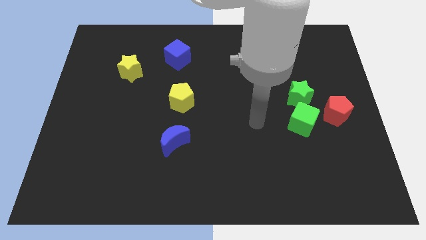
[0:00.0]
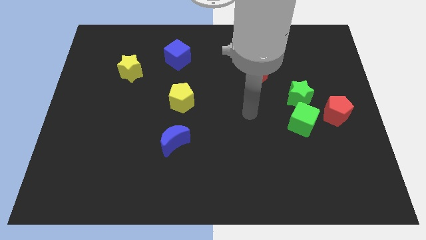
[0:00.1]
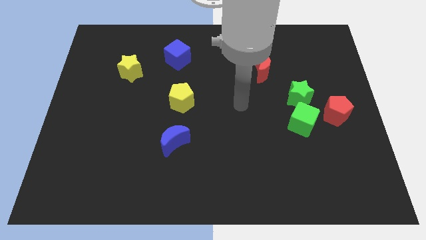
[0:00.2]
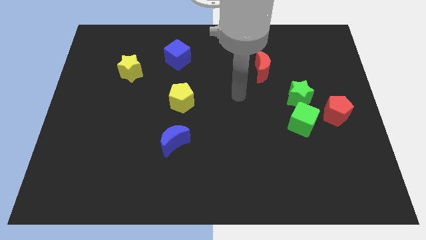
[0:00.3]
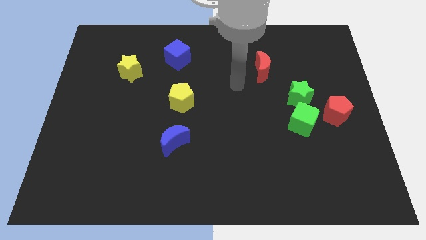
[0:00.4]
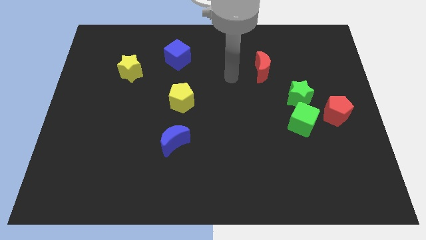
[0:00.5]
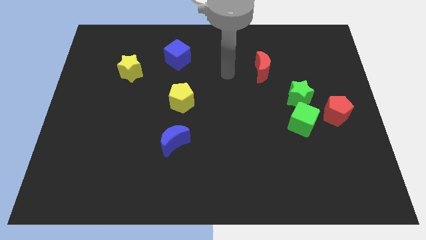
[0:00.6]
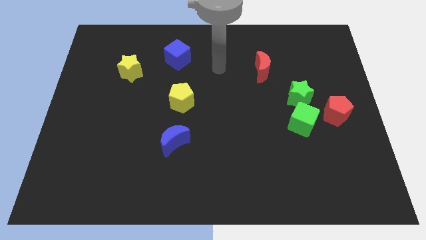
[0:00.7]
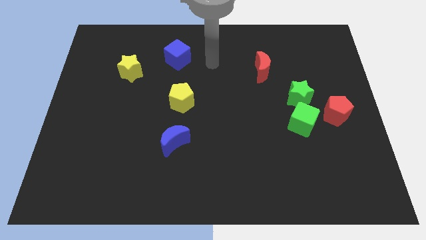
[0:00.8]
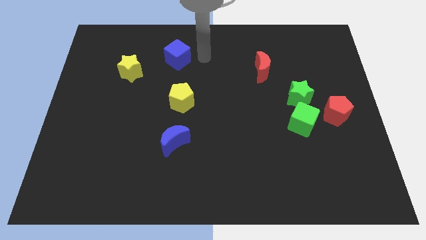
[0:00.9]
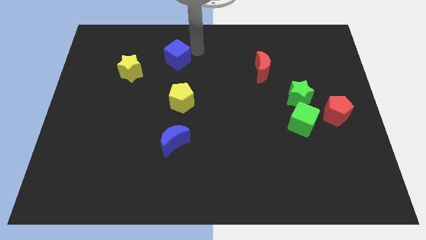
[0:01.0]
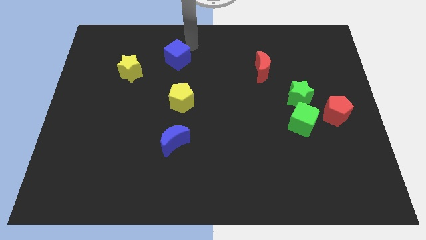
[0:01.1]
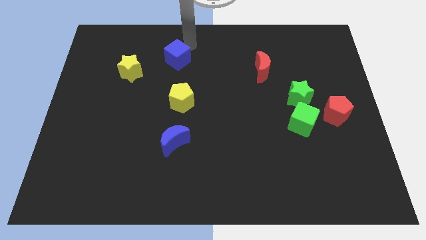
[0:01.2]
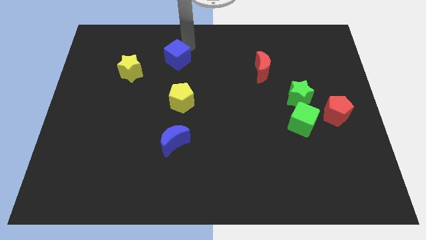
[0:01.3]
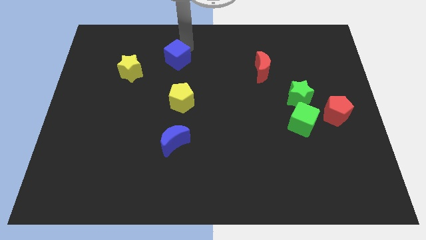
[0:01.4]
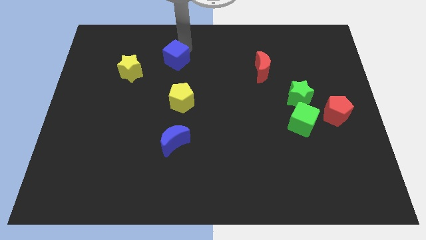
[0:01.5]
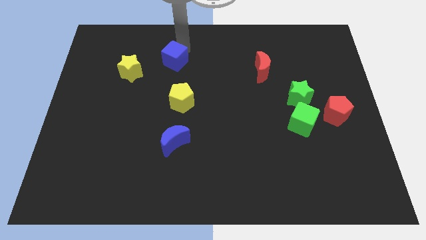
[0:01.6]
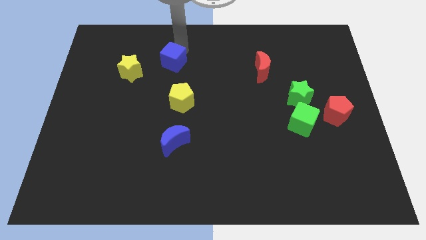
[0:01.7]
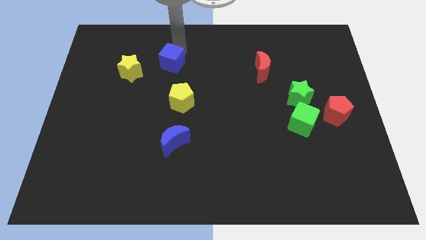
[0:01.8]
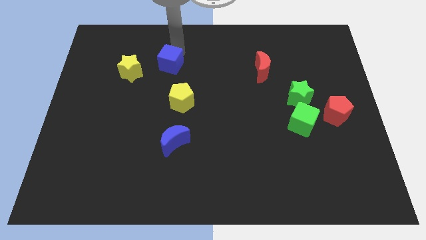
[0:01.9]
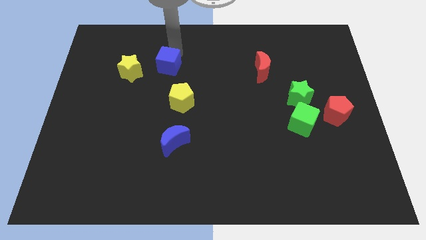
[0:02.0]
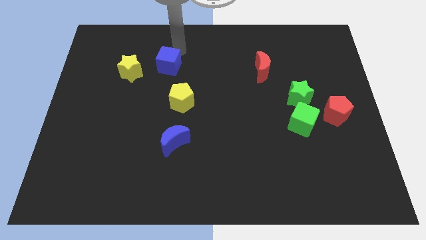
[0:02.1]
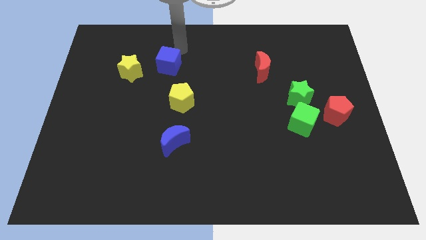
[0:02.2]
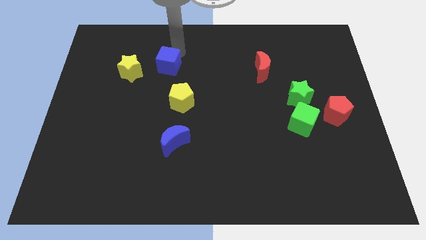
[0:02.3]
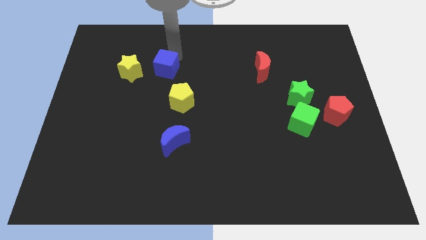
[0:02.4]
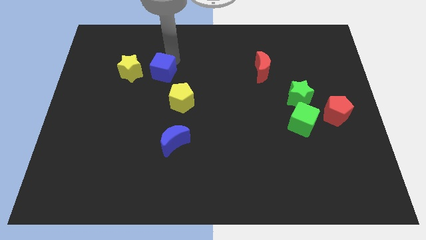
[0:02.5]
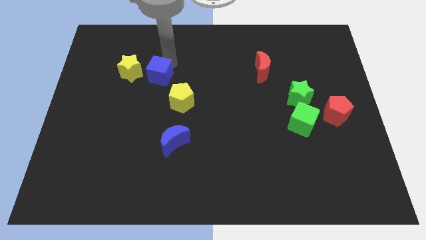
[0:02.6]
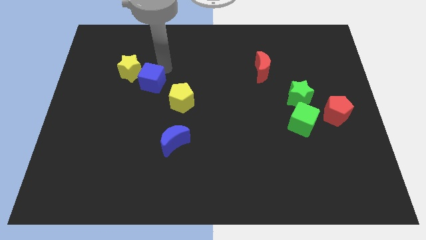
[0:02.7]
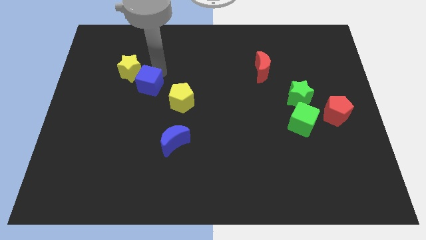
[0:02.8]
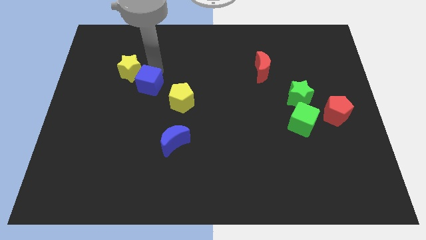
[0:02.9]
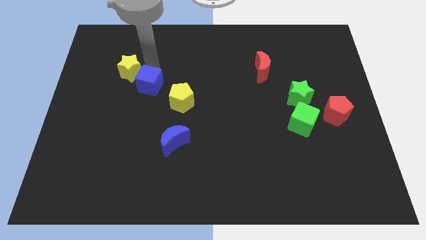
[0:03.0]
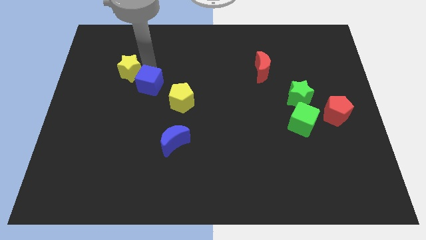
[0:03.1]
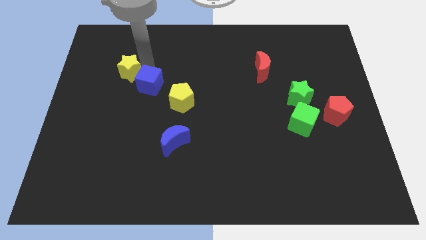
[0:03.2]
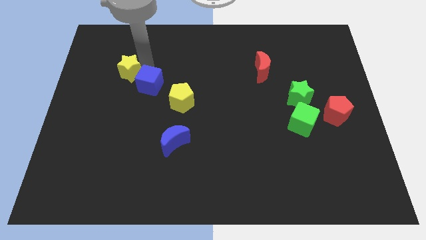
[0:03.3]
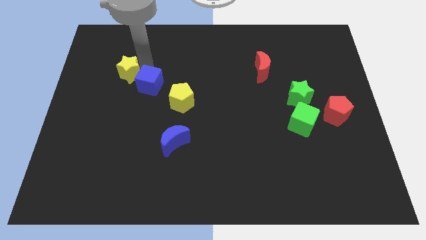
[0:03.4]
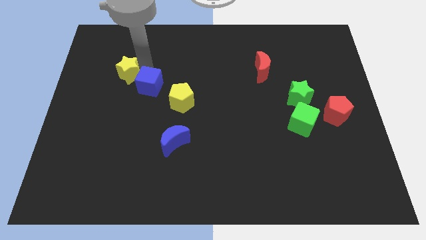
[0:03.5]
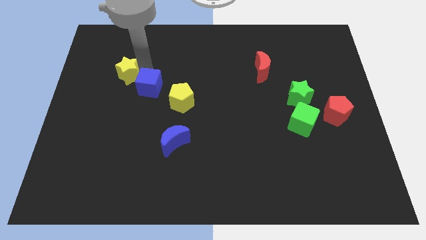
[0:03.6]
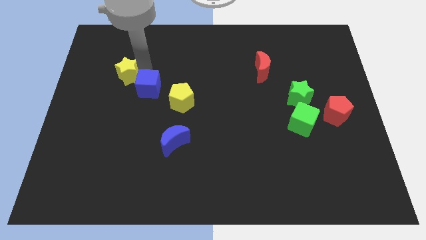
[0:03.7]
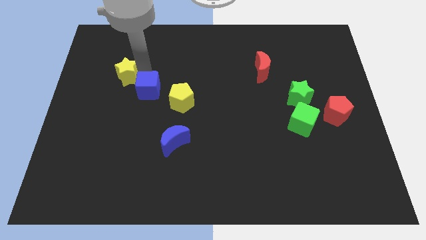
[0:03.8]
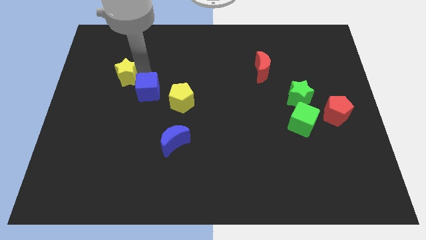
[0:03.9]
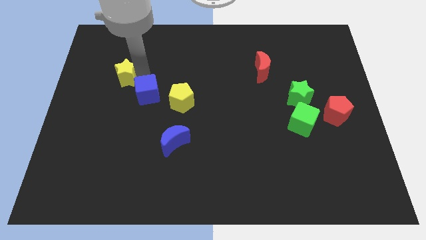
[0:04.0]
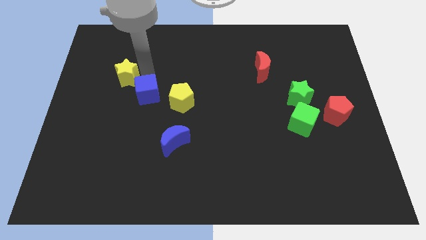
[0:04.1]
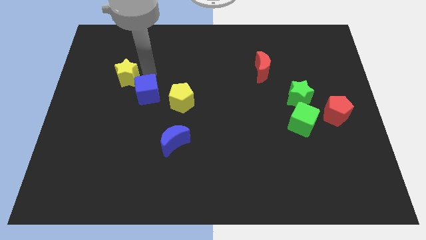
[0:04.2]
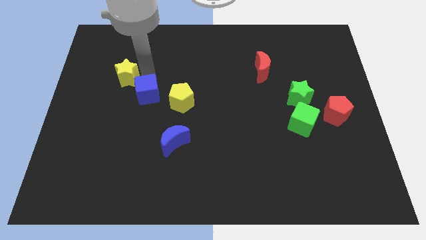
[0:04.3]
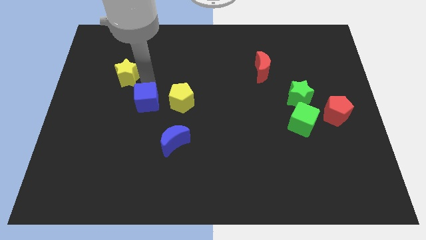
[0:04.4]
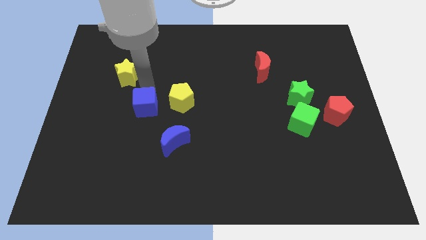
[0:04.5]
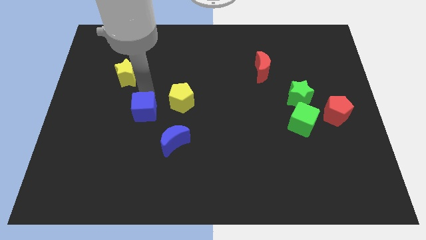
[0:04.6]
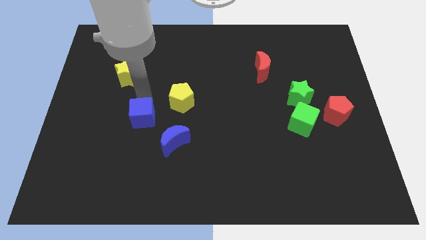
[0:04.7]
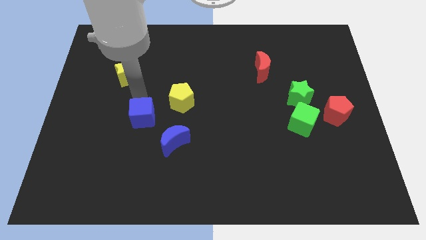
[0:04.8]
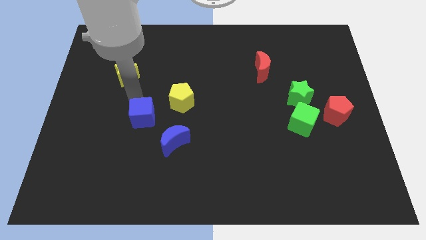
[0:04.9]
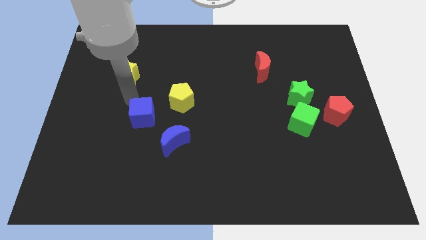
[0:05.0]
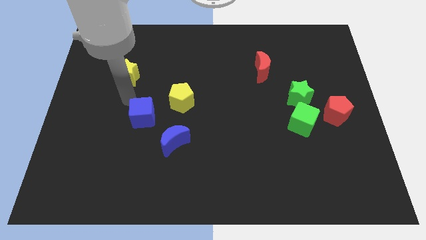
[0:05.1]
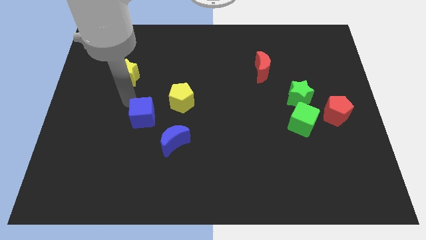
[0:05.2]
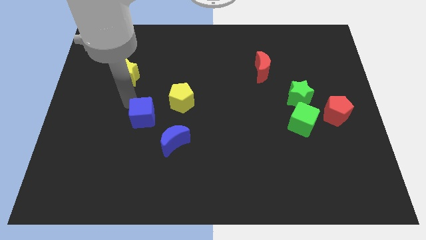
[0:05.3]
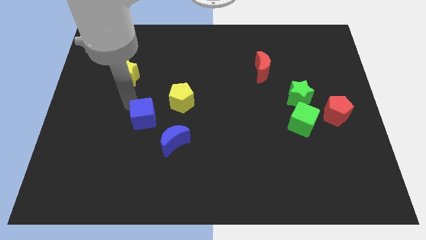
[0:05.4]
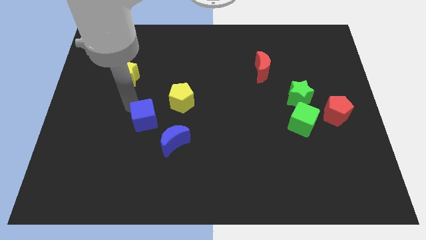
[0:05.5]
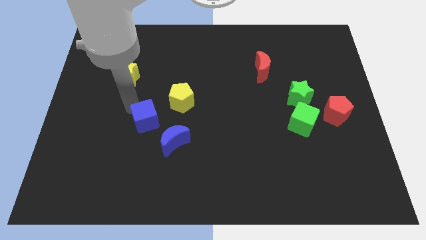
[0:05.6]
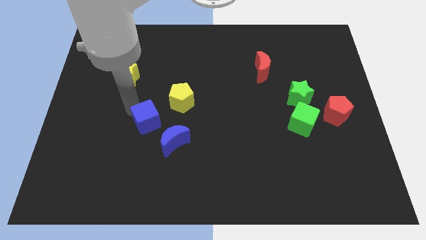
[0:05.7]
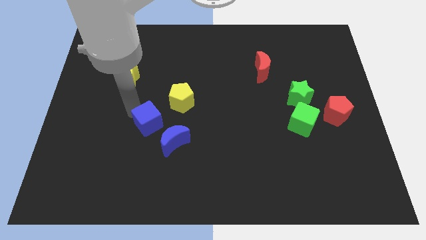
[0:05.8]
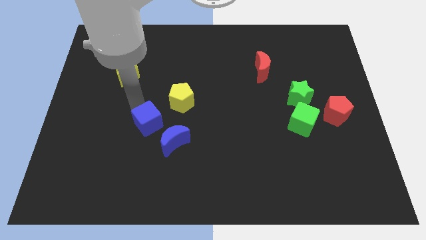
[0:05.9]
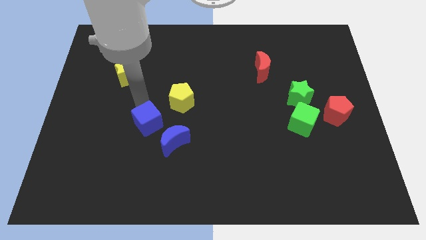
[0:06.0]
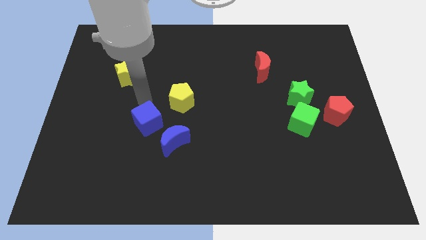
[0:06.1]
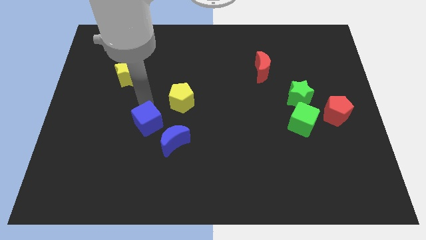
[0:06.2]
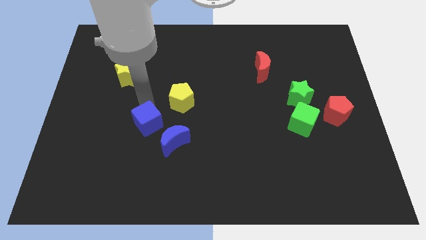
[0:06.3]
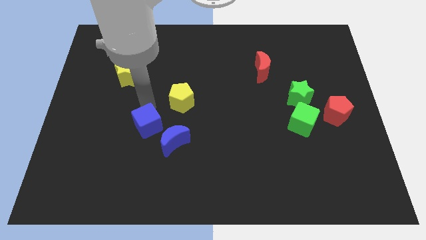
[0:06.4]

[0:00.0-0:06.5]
slide the blue cube downwards

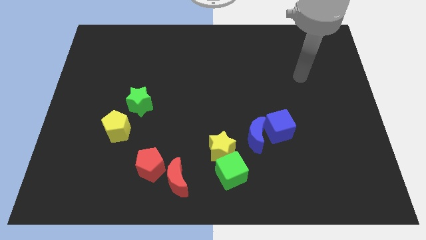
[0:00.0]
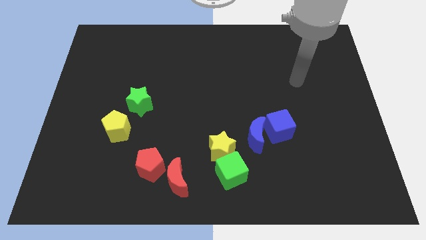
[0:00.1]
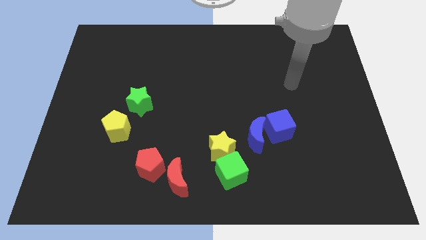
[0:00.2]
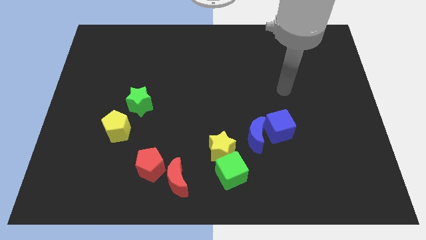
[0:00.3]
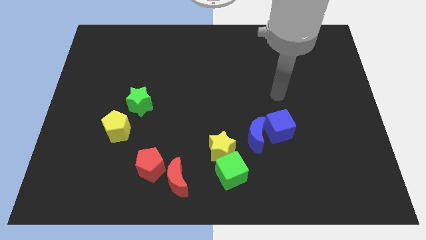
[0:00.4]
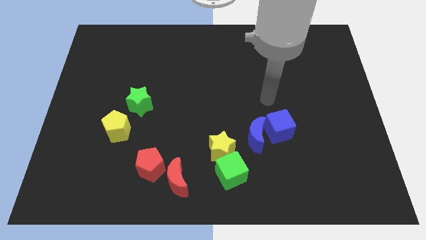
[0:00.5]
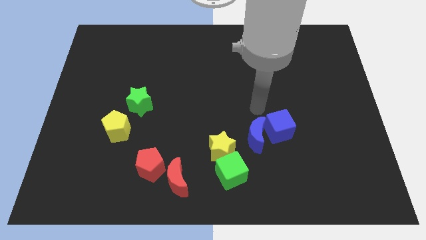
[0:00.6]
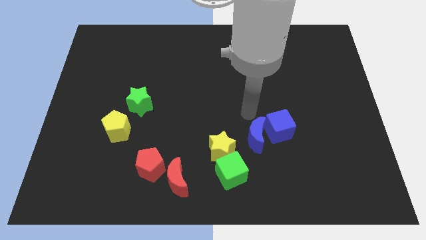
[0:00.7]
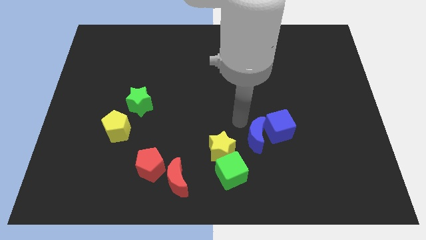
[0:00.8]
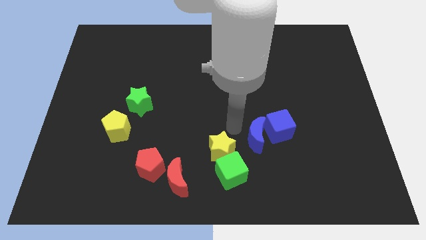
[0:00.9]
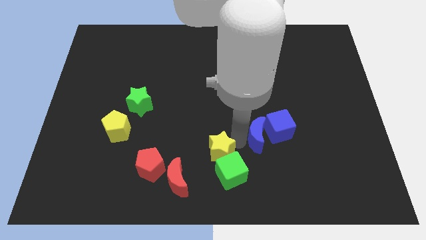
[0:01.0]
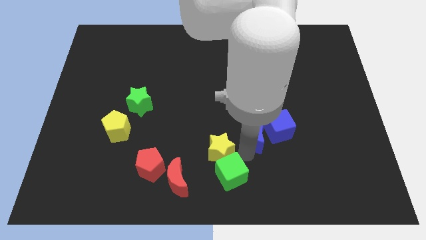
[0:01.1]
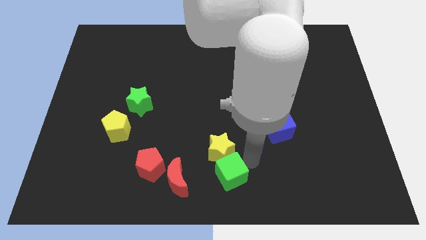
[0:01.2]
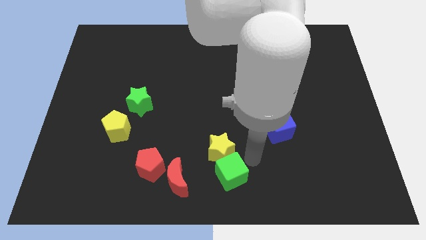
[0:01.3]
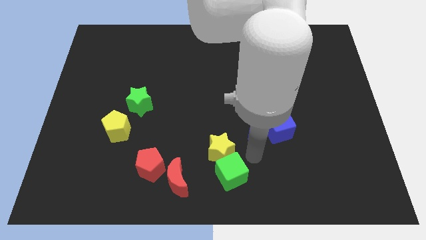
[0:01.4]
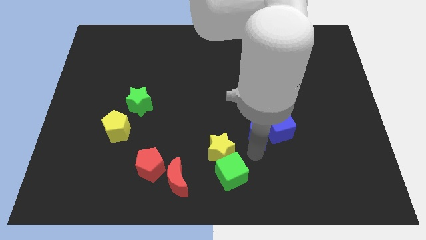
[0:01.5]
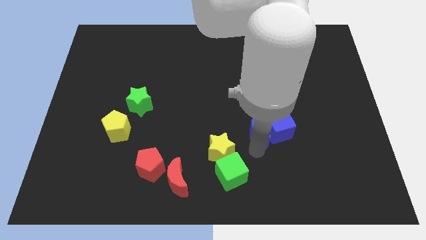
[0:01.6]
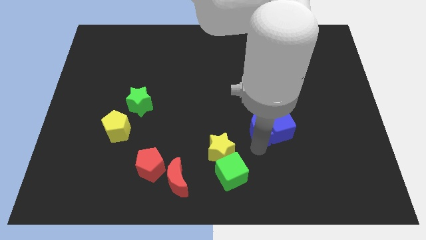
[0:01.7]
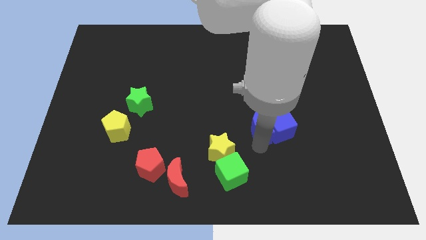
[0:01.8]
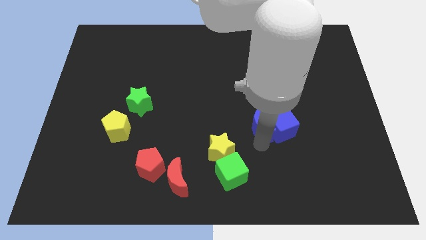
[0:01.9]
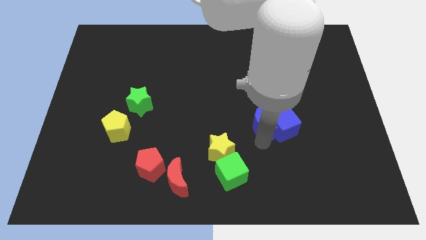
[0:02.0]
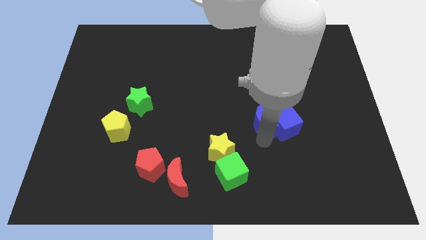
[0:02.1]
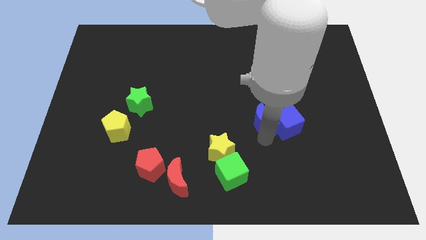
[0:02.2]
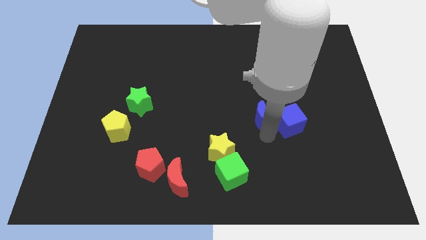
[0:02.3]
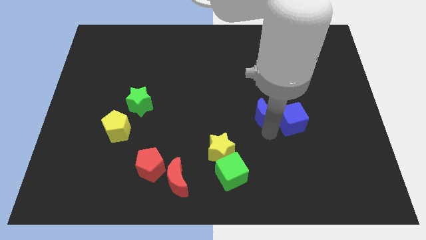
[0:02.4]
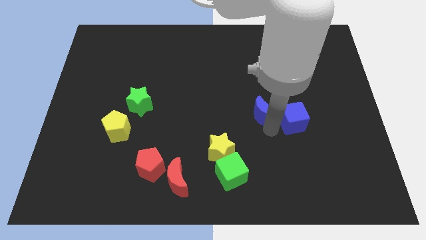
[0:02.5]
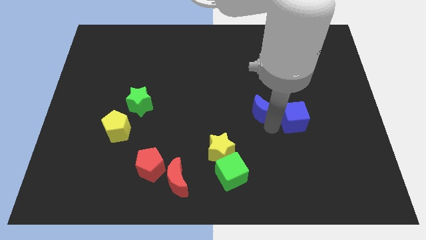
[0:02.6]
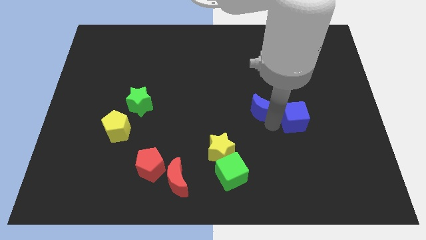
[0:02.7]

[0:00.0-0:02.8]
slide the blue moon up a little
